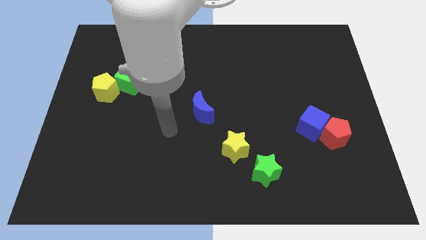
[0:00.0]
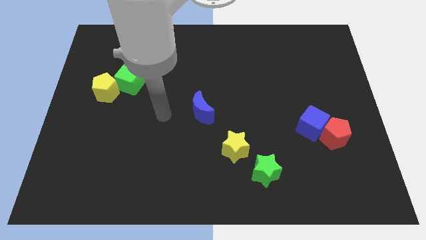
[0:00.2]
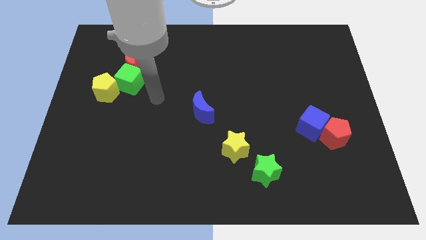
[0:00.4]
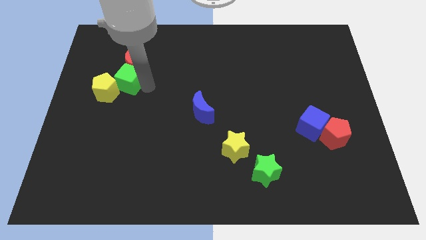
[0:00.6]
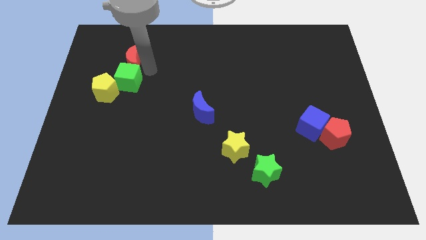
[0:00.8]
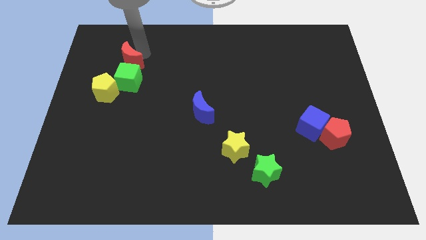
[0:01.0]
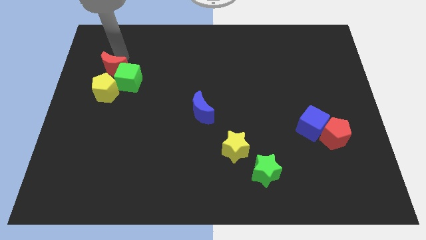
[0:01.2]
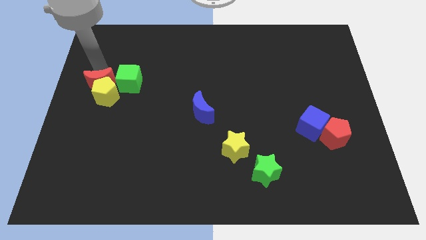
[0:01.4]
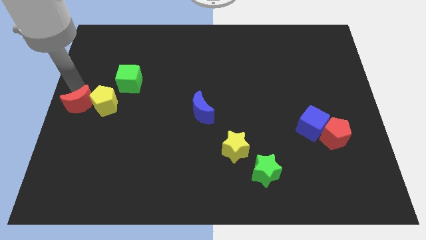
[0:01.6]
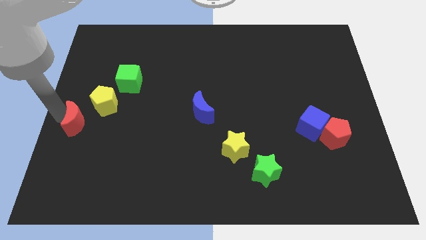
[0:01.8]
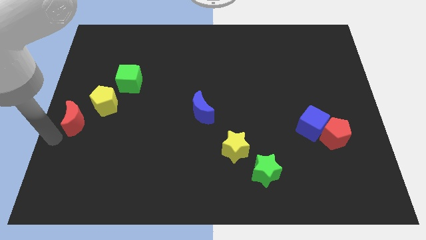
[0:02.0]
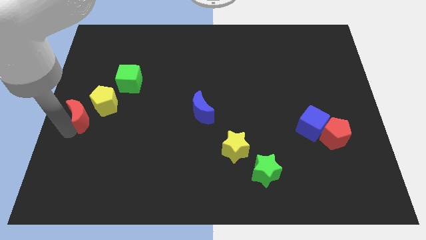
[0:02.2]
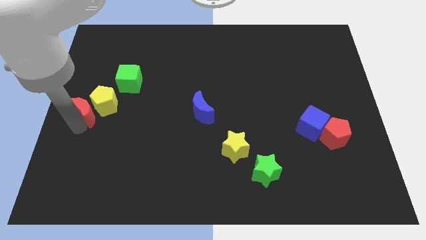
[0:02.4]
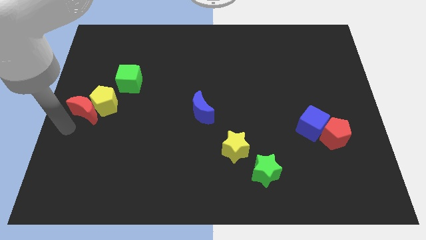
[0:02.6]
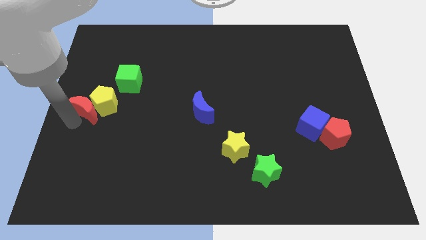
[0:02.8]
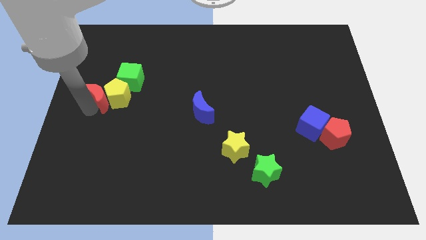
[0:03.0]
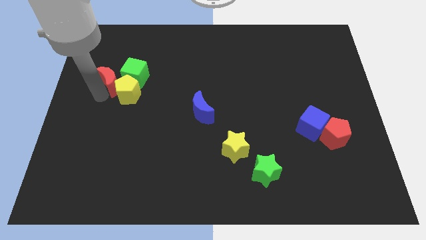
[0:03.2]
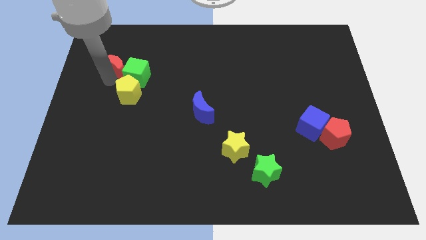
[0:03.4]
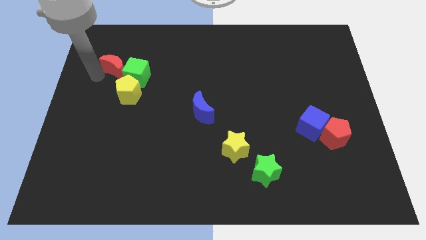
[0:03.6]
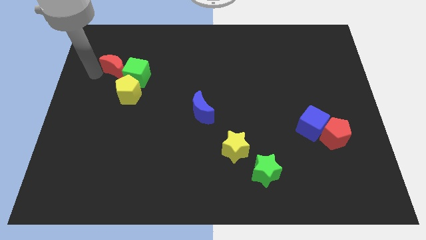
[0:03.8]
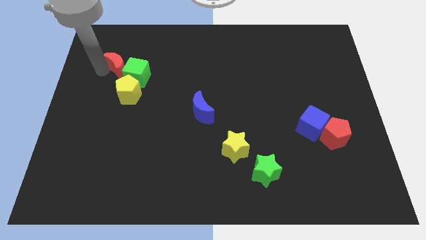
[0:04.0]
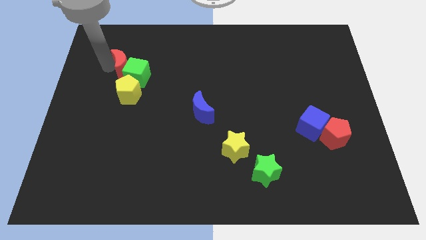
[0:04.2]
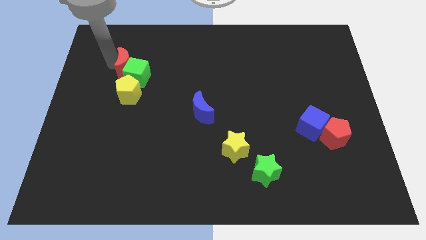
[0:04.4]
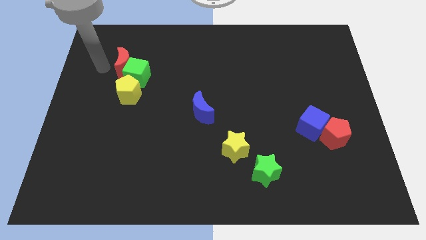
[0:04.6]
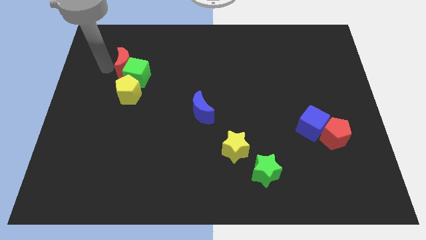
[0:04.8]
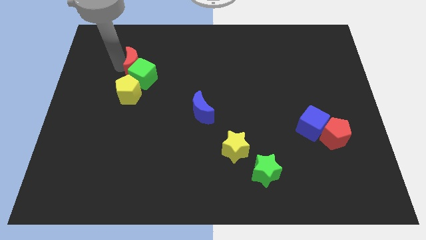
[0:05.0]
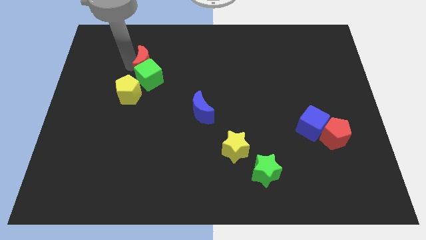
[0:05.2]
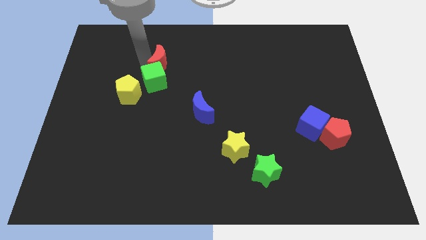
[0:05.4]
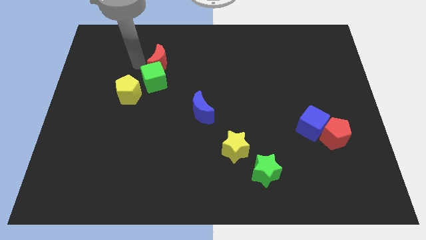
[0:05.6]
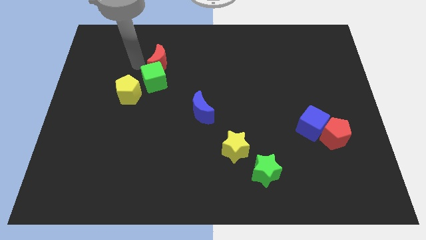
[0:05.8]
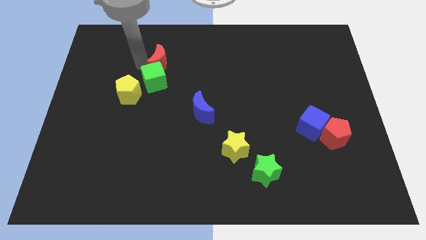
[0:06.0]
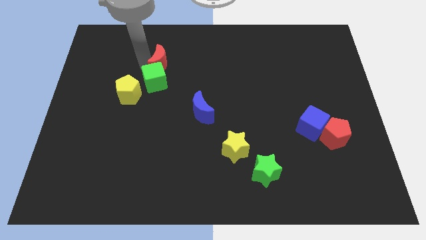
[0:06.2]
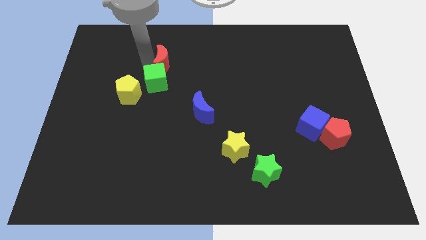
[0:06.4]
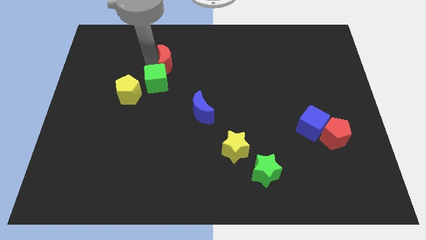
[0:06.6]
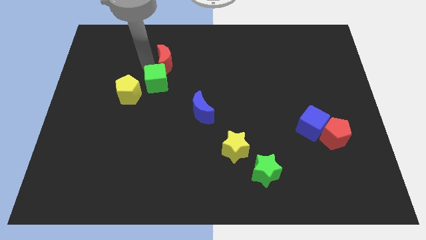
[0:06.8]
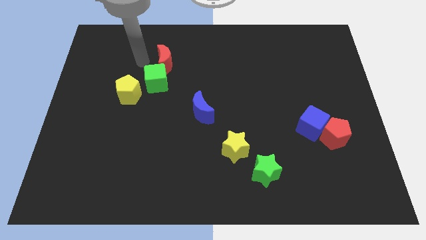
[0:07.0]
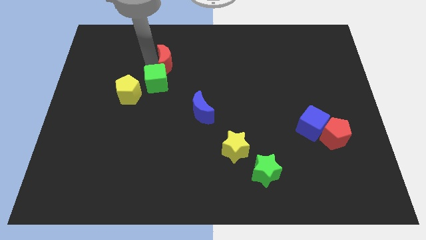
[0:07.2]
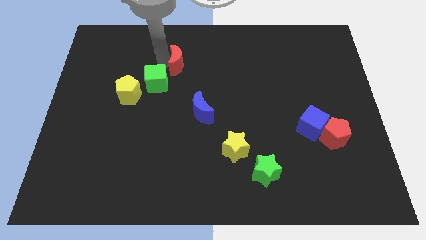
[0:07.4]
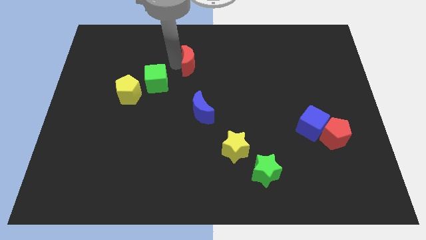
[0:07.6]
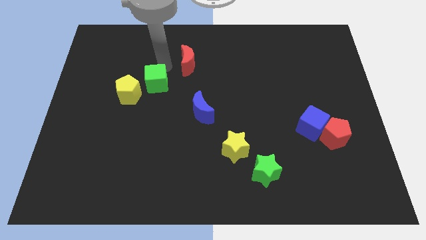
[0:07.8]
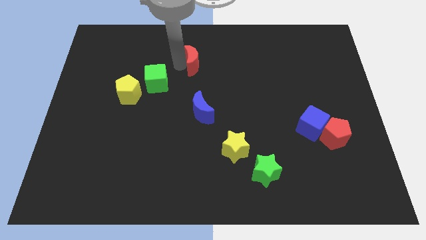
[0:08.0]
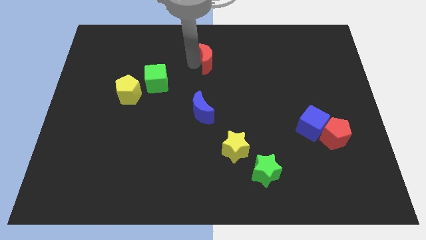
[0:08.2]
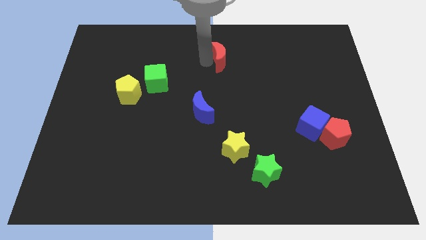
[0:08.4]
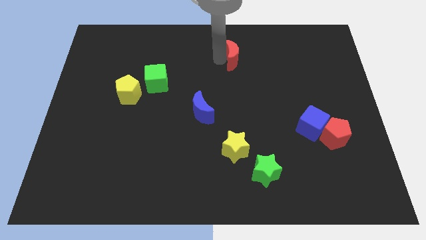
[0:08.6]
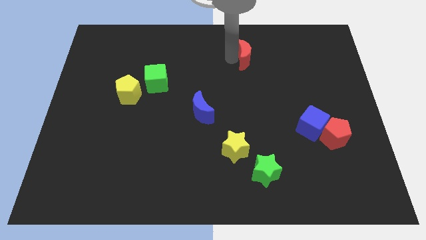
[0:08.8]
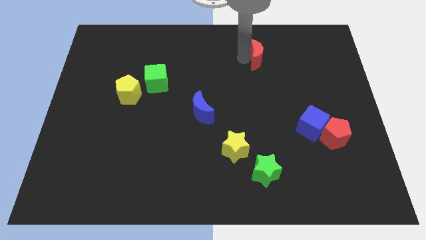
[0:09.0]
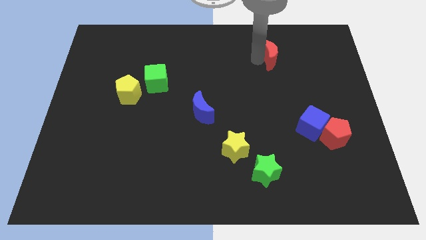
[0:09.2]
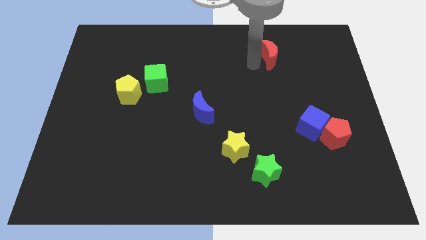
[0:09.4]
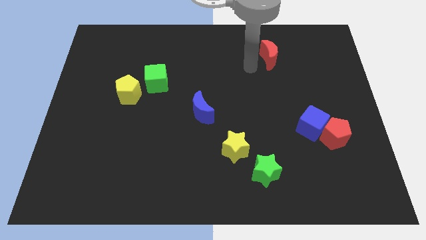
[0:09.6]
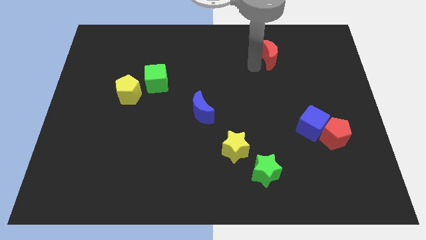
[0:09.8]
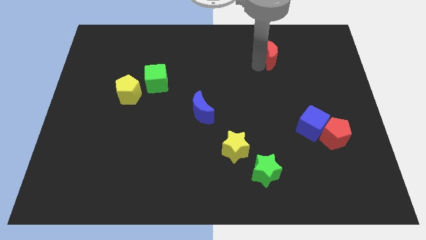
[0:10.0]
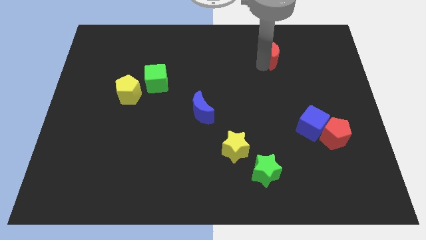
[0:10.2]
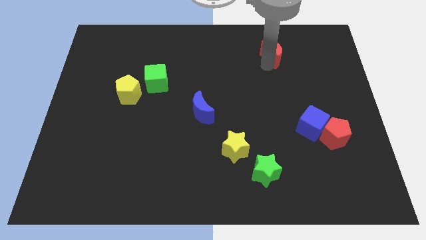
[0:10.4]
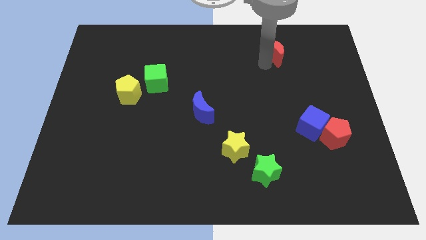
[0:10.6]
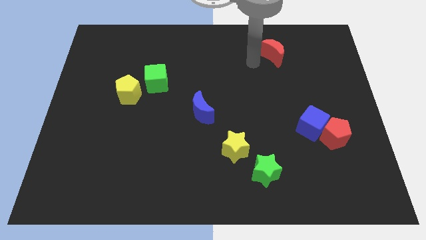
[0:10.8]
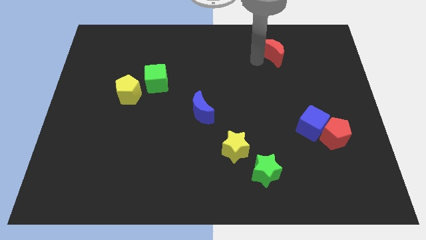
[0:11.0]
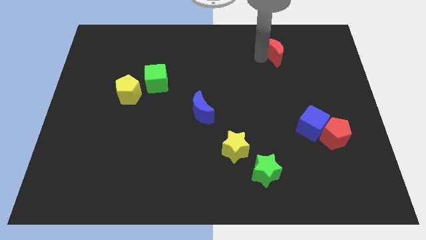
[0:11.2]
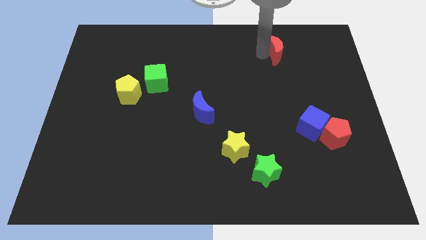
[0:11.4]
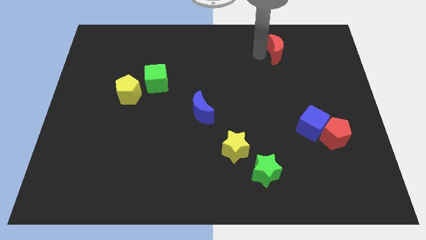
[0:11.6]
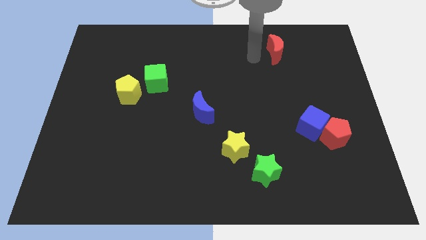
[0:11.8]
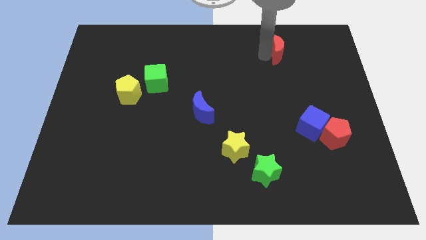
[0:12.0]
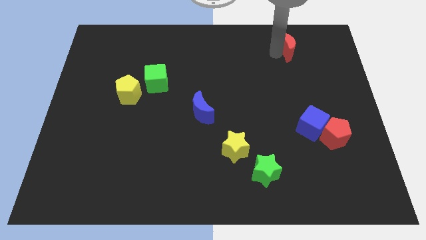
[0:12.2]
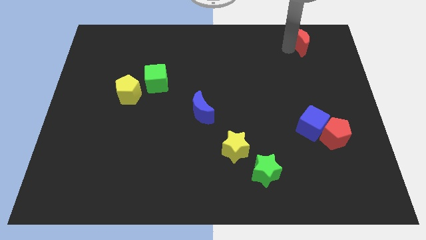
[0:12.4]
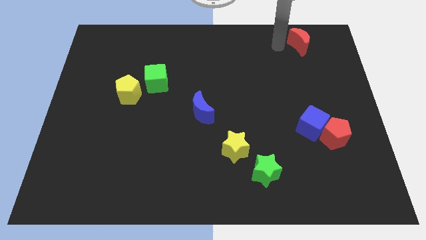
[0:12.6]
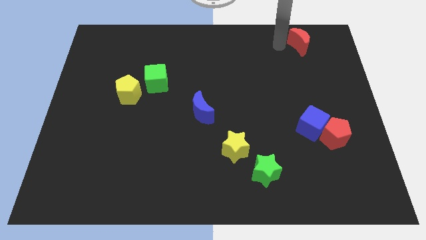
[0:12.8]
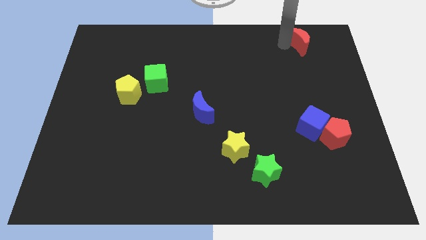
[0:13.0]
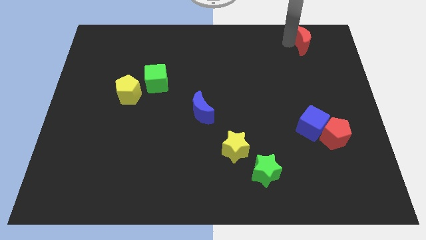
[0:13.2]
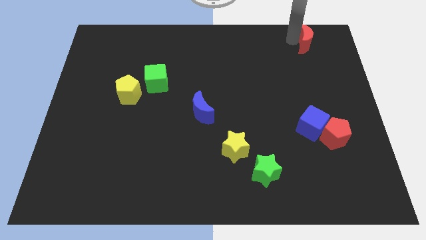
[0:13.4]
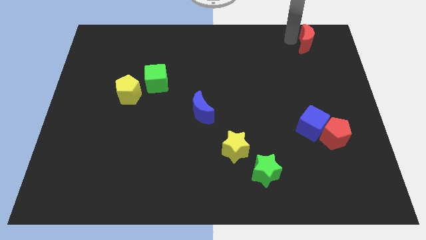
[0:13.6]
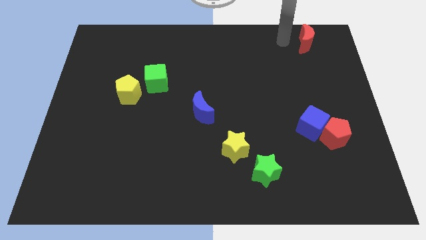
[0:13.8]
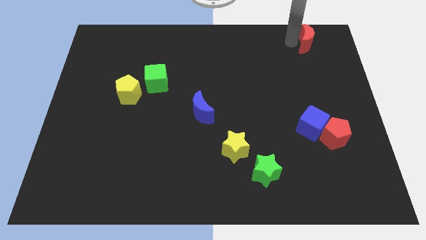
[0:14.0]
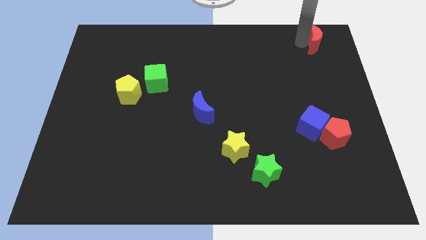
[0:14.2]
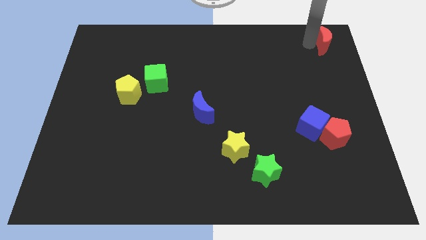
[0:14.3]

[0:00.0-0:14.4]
put the red moon to the top right of the board
